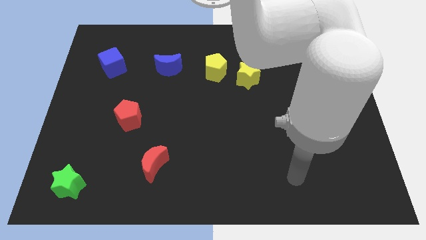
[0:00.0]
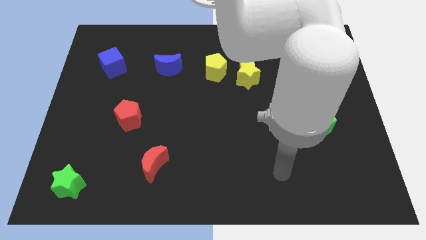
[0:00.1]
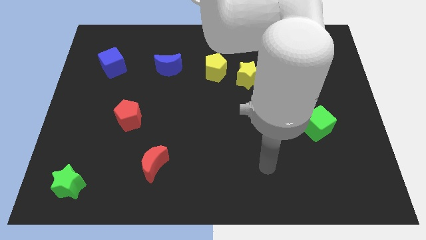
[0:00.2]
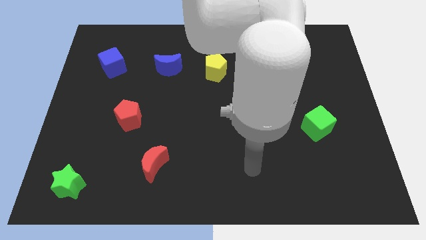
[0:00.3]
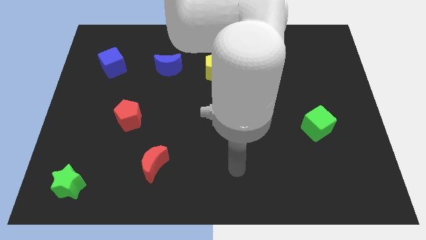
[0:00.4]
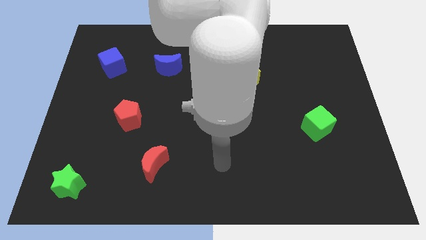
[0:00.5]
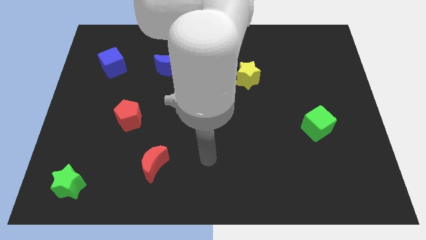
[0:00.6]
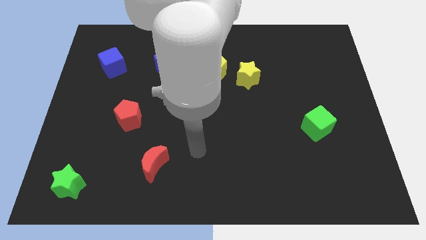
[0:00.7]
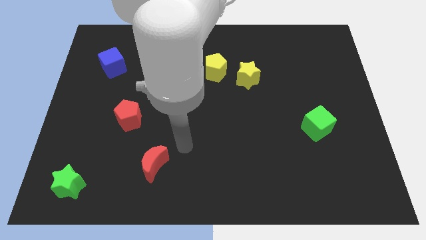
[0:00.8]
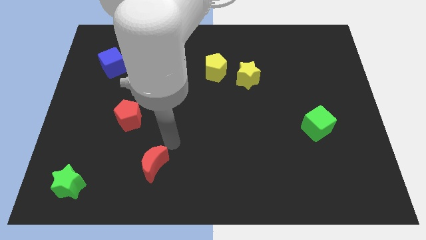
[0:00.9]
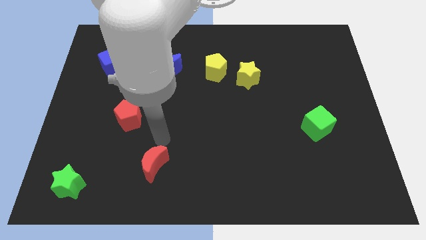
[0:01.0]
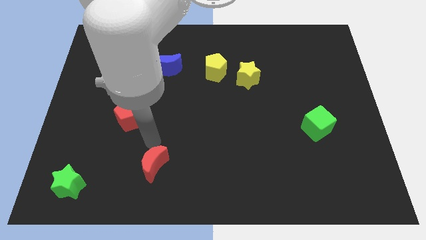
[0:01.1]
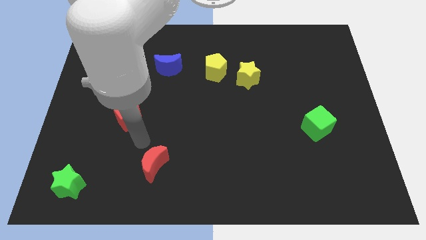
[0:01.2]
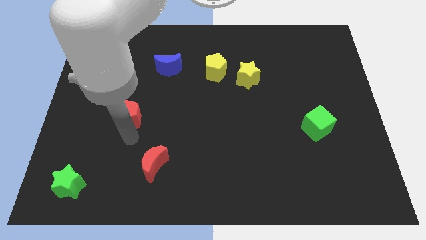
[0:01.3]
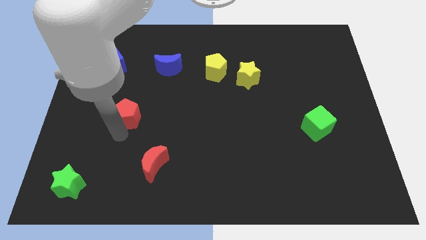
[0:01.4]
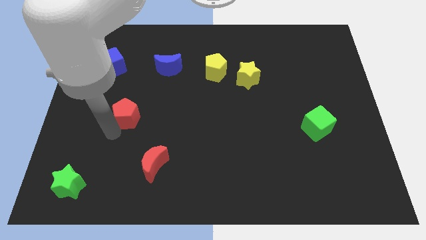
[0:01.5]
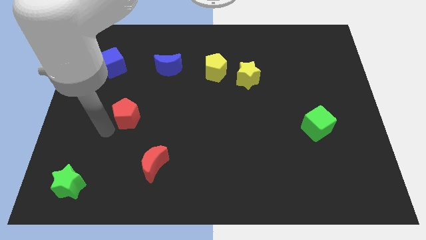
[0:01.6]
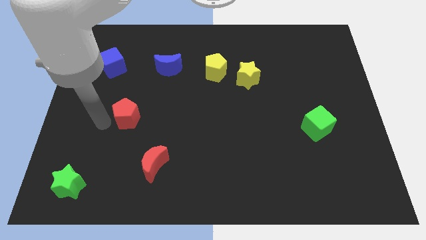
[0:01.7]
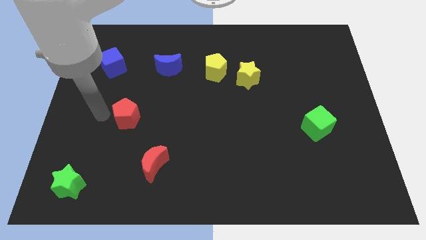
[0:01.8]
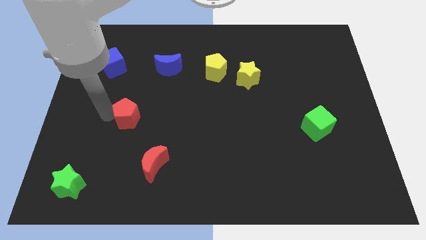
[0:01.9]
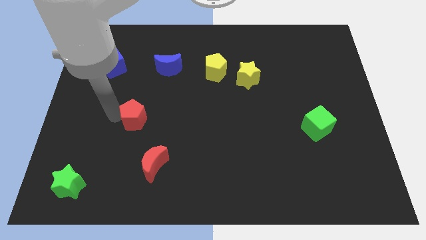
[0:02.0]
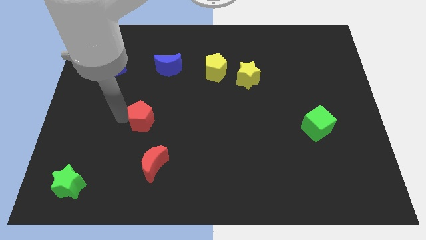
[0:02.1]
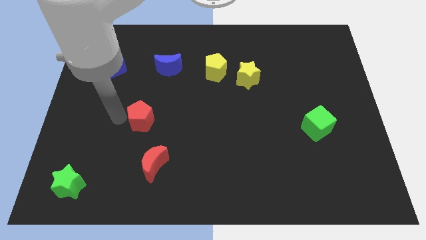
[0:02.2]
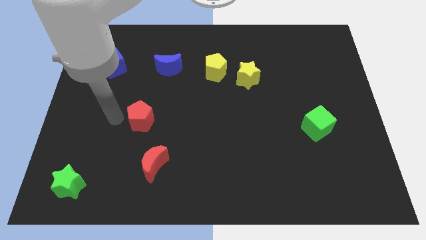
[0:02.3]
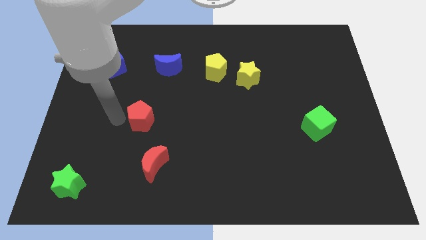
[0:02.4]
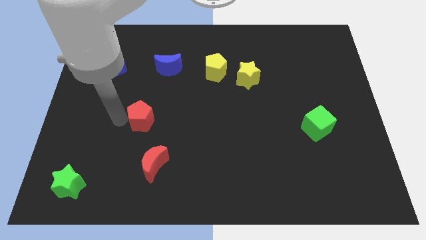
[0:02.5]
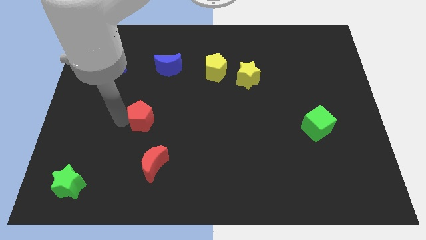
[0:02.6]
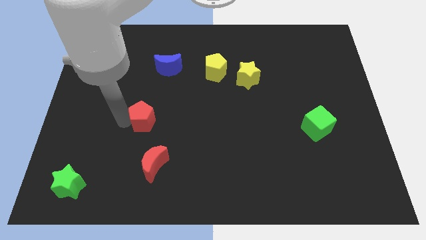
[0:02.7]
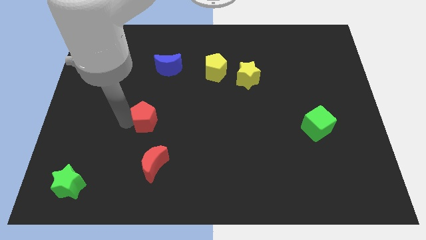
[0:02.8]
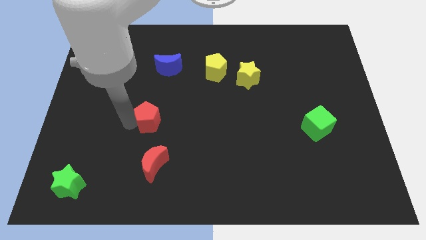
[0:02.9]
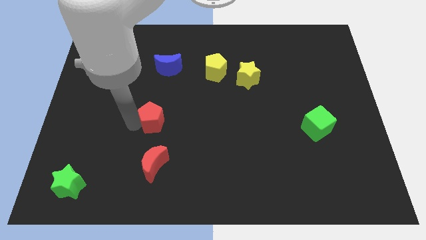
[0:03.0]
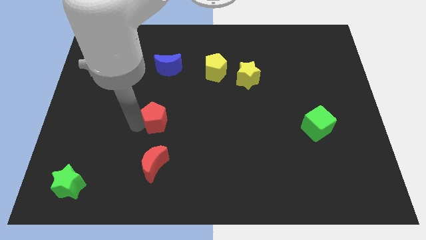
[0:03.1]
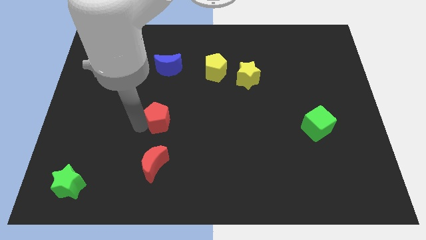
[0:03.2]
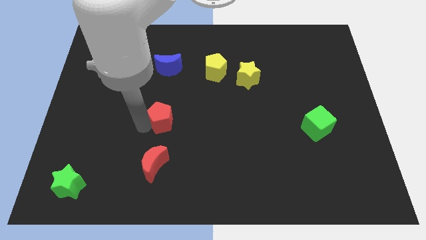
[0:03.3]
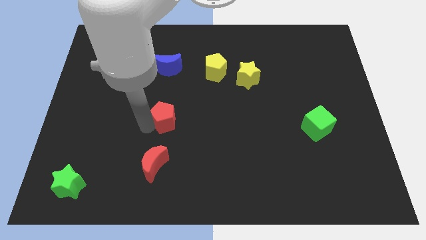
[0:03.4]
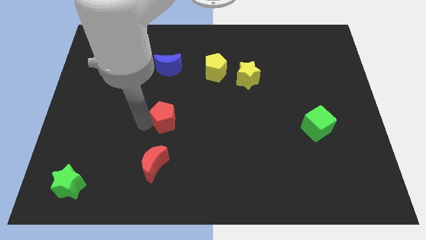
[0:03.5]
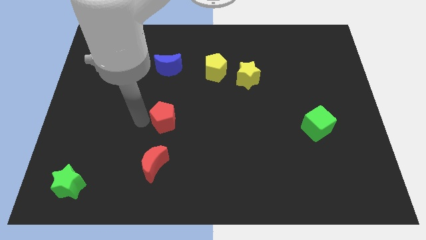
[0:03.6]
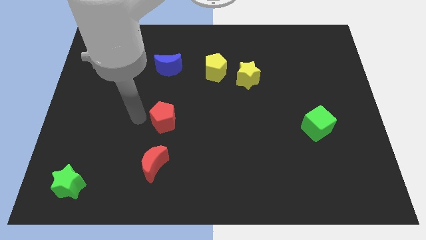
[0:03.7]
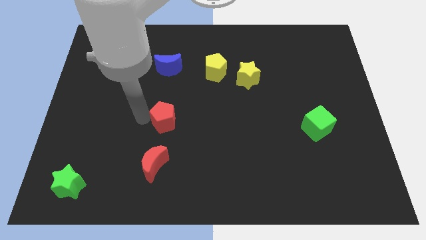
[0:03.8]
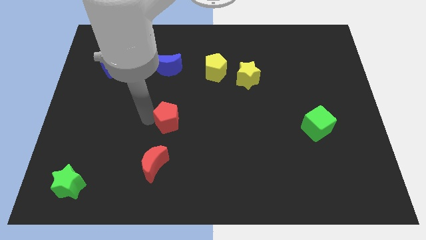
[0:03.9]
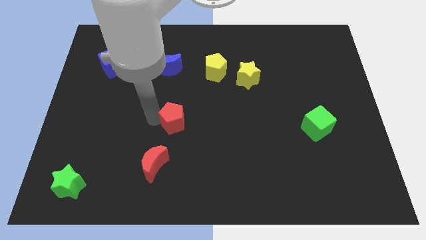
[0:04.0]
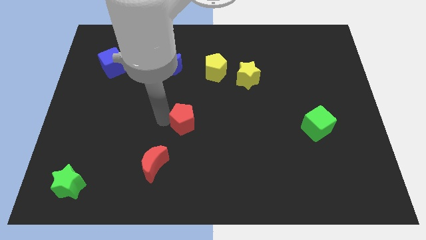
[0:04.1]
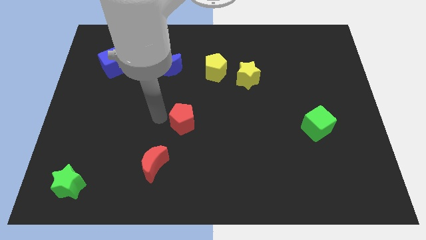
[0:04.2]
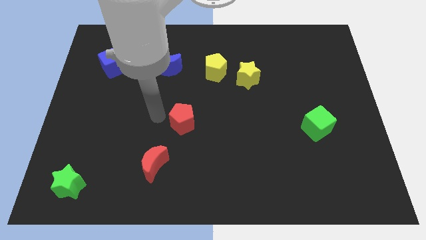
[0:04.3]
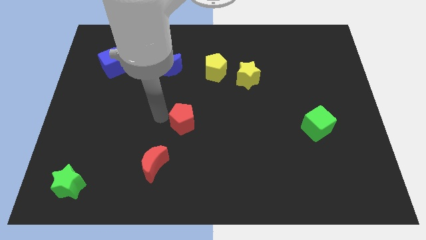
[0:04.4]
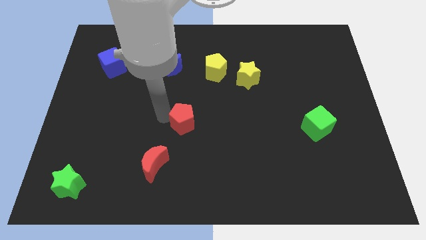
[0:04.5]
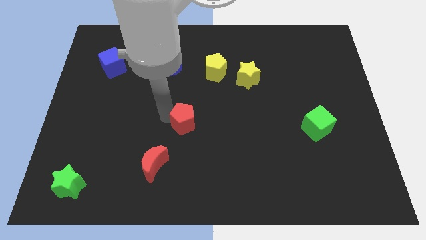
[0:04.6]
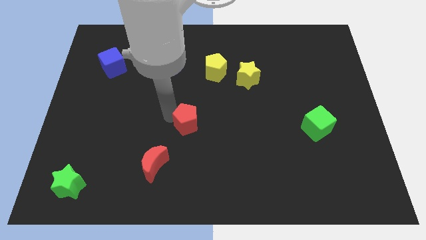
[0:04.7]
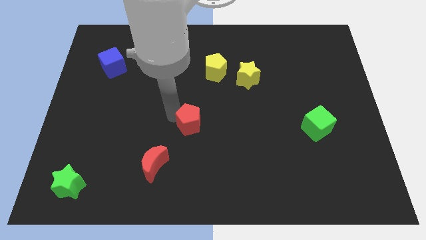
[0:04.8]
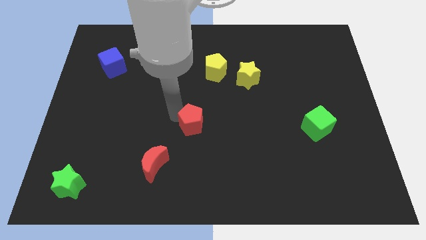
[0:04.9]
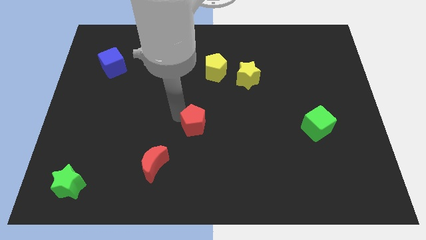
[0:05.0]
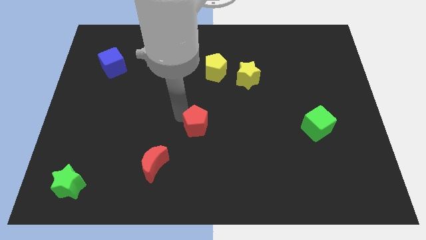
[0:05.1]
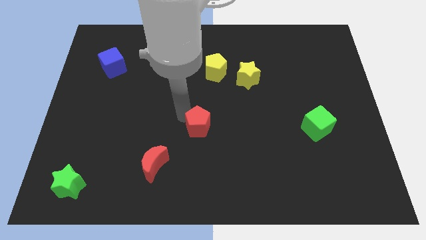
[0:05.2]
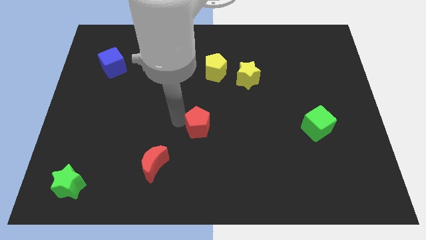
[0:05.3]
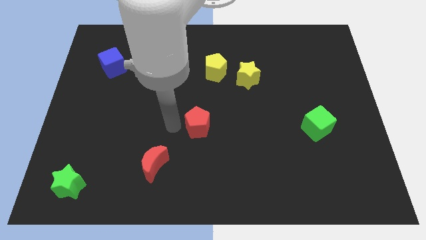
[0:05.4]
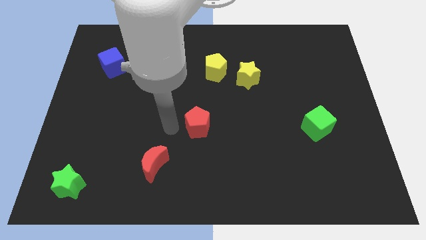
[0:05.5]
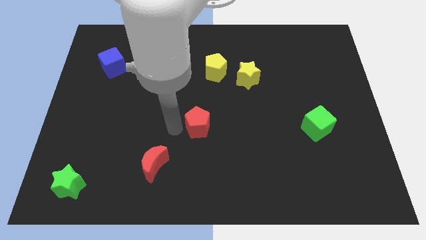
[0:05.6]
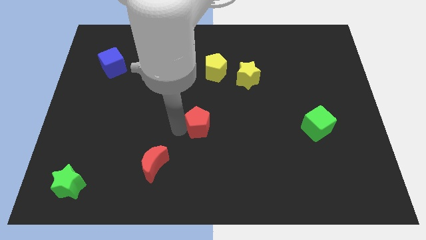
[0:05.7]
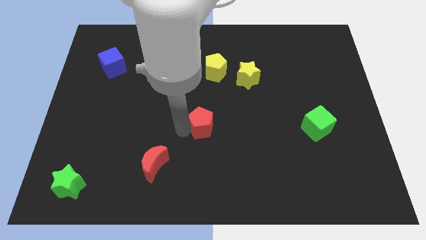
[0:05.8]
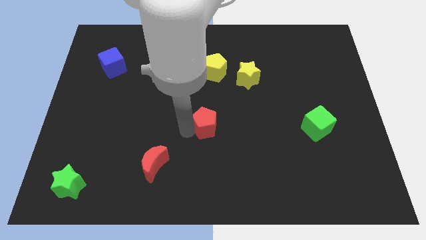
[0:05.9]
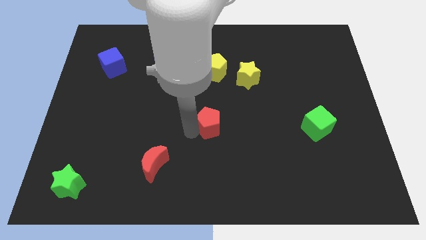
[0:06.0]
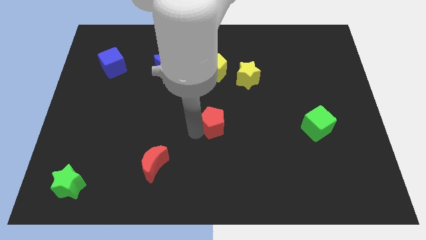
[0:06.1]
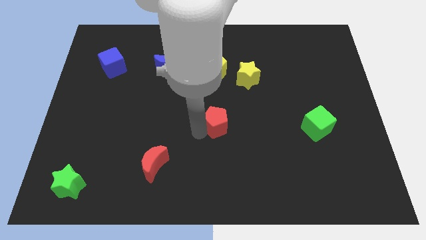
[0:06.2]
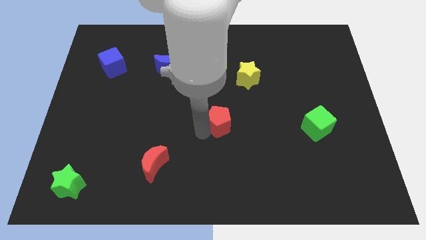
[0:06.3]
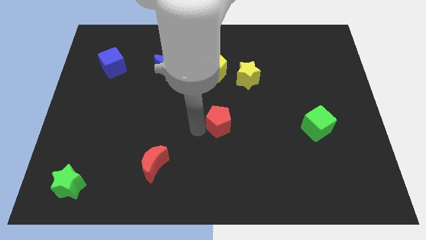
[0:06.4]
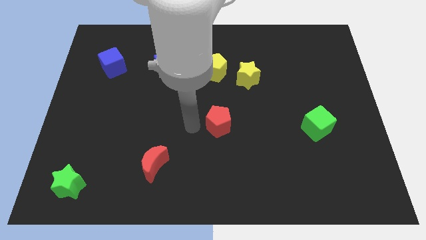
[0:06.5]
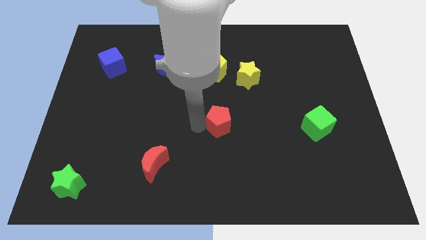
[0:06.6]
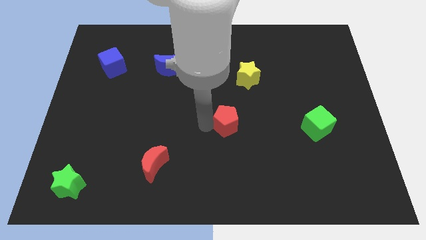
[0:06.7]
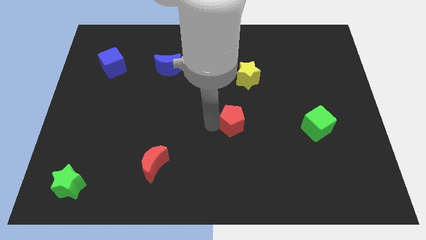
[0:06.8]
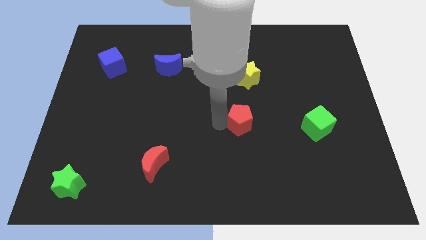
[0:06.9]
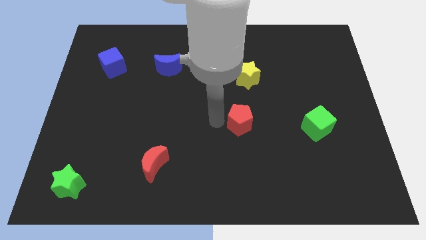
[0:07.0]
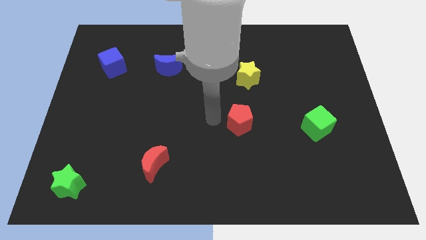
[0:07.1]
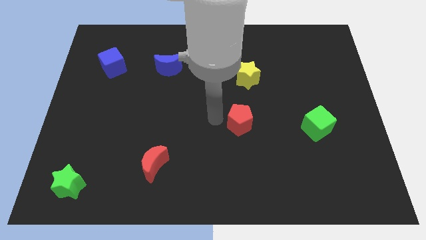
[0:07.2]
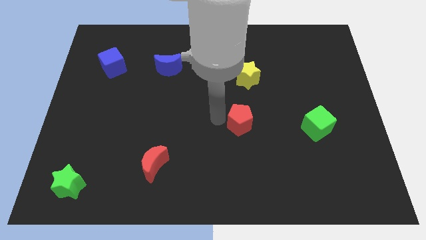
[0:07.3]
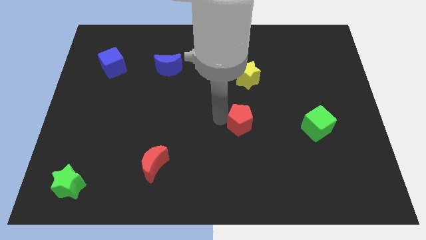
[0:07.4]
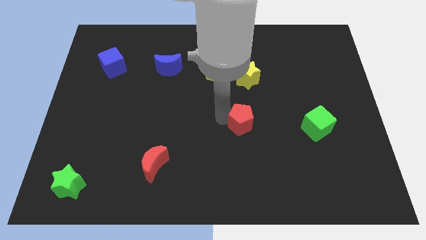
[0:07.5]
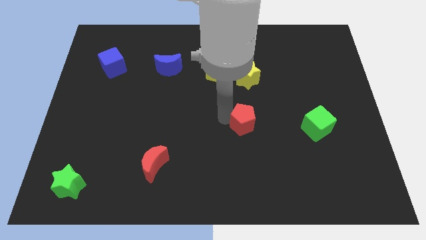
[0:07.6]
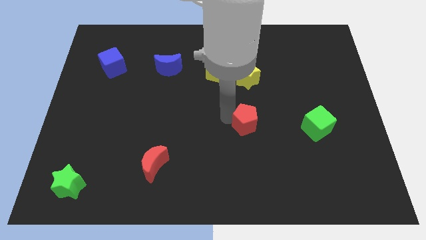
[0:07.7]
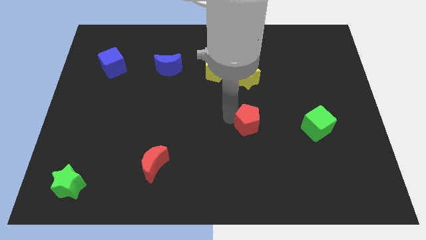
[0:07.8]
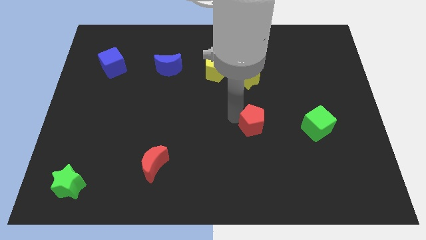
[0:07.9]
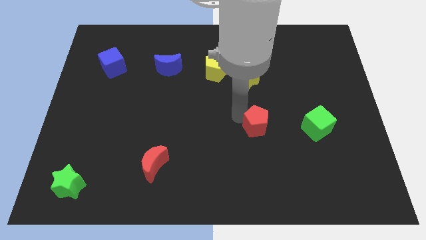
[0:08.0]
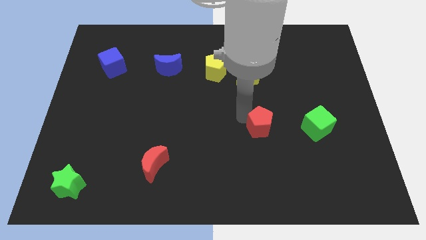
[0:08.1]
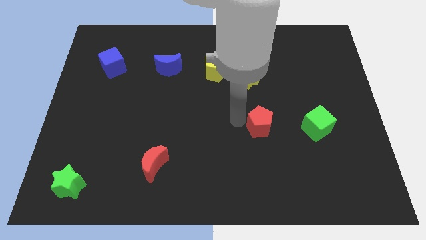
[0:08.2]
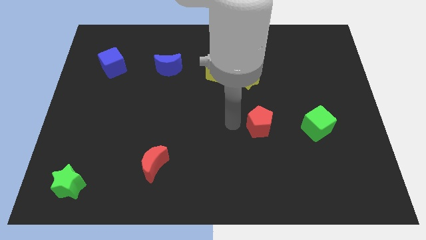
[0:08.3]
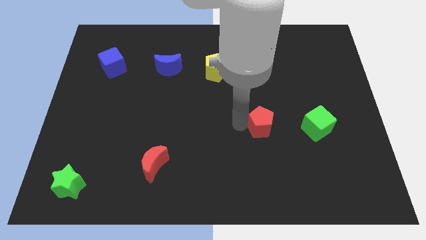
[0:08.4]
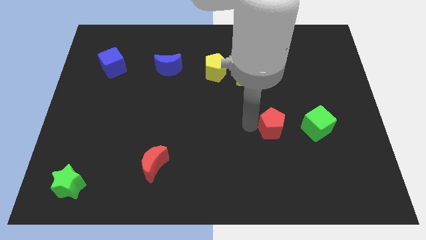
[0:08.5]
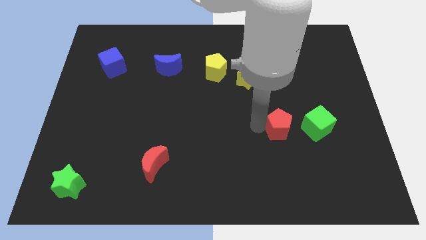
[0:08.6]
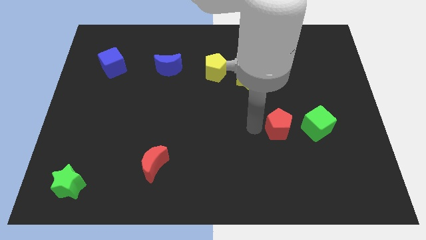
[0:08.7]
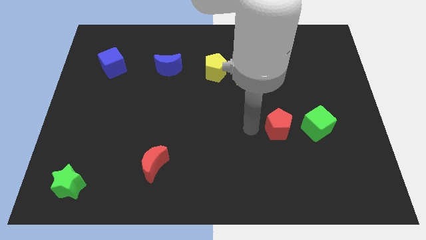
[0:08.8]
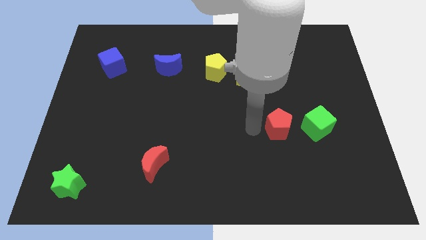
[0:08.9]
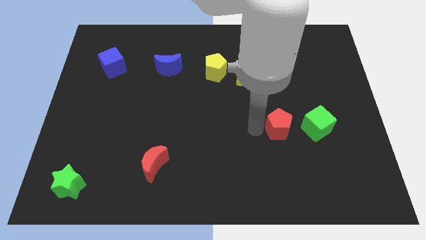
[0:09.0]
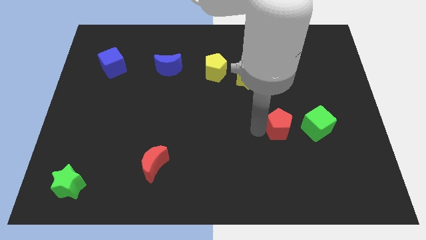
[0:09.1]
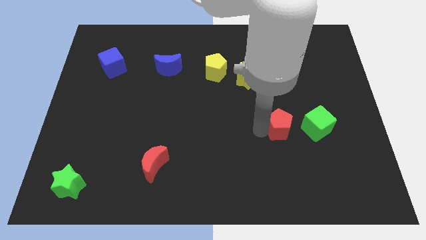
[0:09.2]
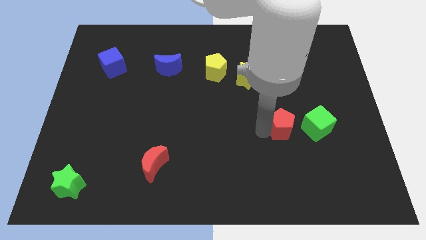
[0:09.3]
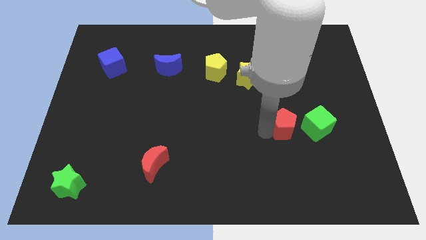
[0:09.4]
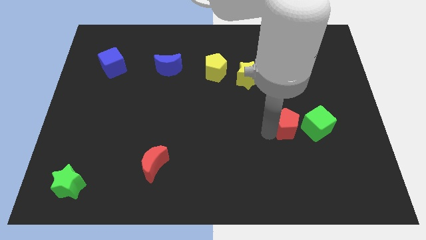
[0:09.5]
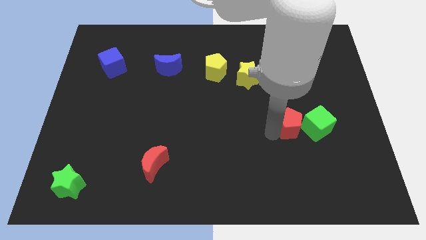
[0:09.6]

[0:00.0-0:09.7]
put the red pentagon next to the green cube
